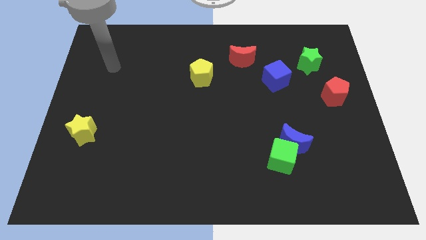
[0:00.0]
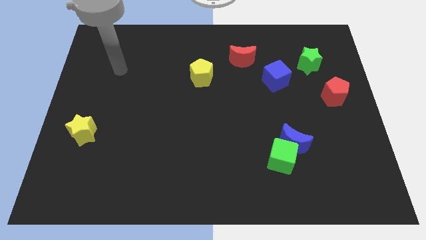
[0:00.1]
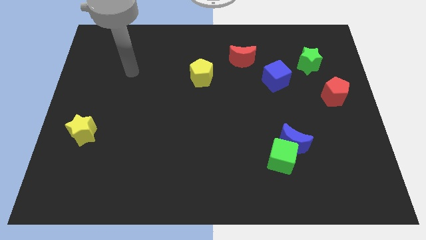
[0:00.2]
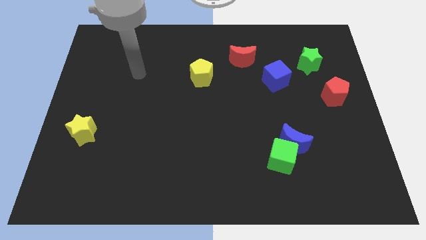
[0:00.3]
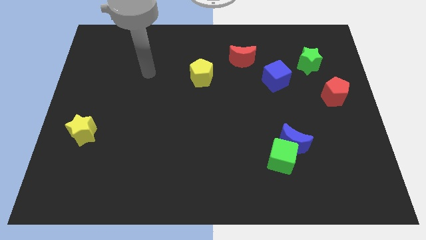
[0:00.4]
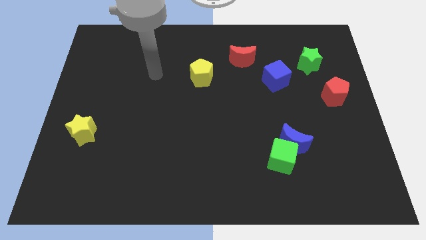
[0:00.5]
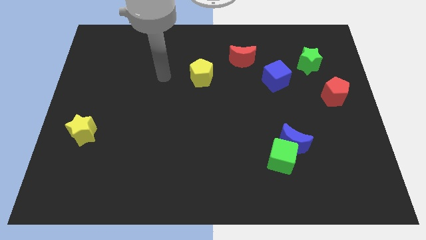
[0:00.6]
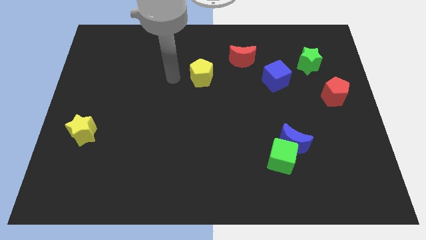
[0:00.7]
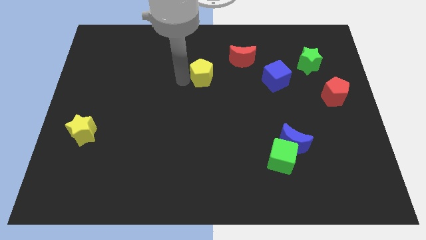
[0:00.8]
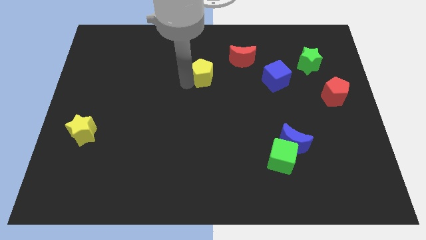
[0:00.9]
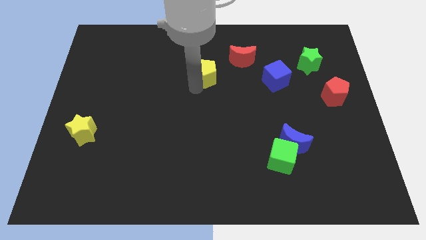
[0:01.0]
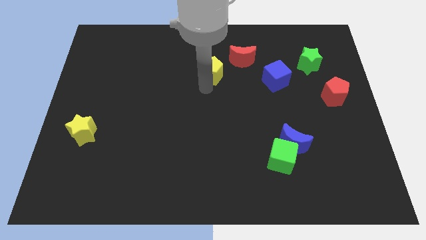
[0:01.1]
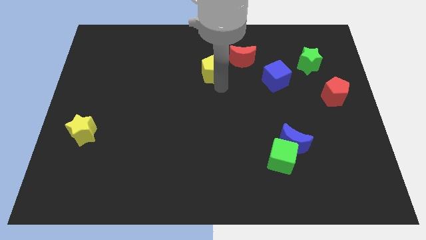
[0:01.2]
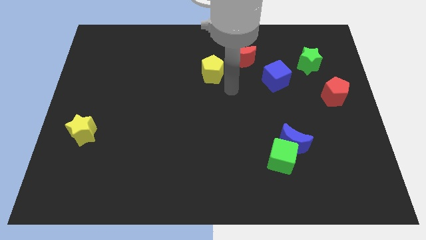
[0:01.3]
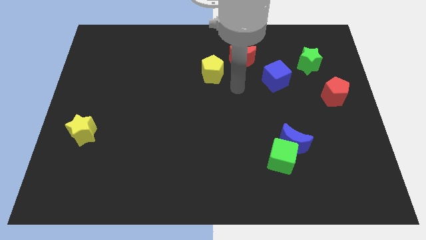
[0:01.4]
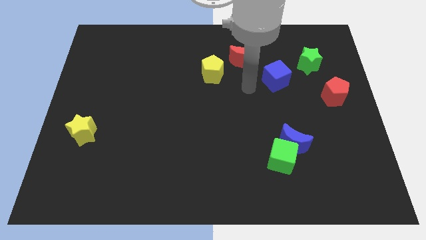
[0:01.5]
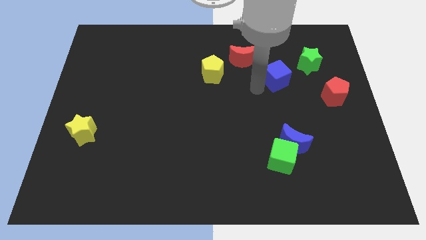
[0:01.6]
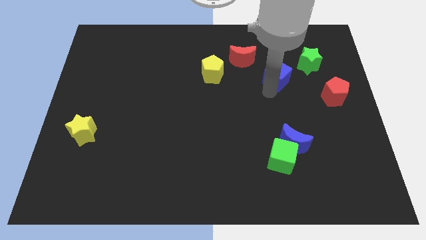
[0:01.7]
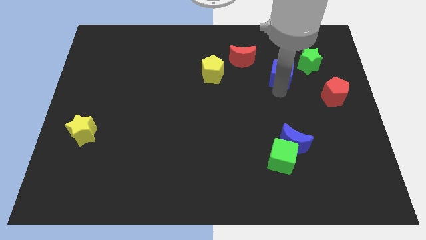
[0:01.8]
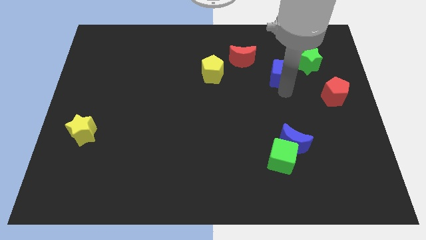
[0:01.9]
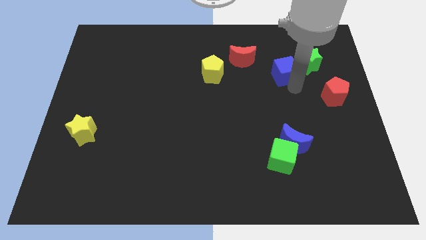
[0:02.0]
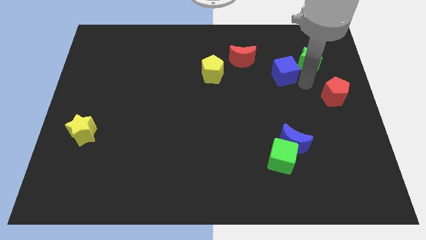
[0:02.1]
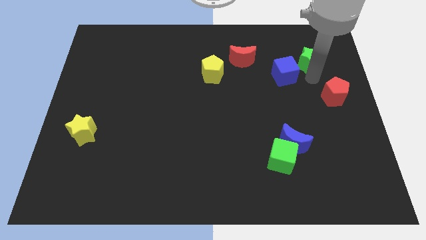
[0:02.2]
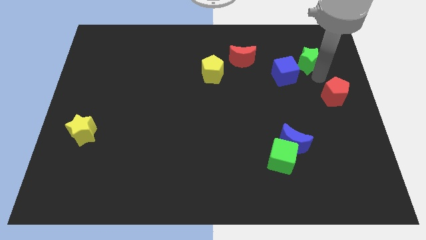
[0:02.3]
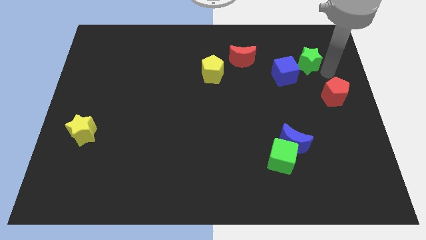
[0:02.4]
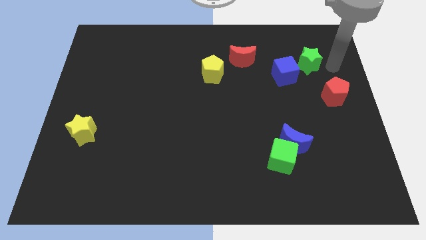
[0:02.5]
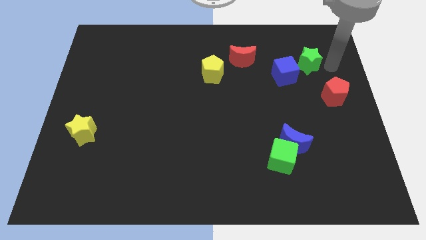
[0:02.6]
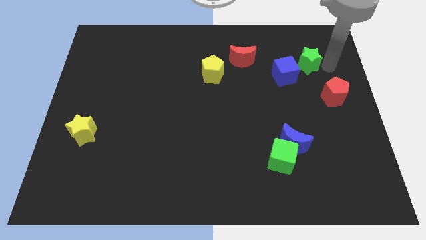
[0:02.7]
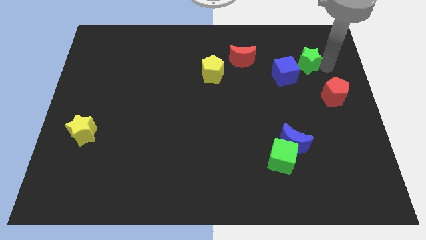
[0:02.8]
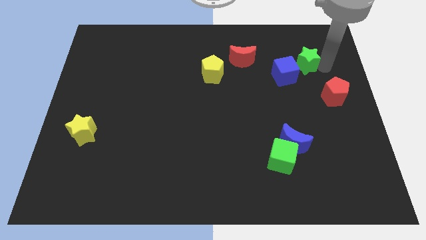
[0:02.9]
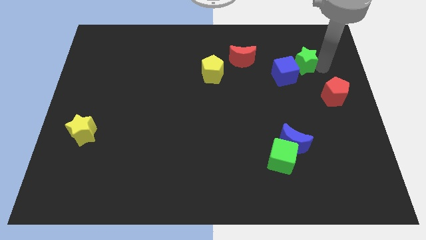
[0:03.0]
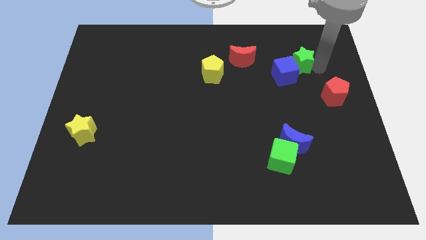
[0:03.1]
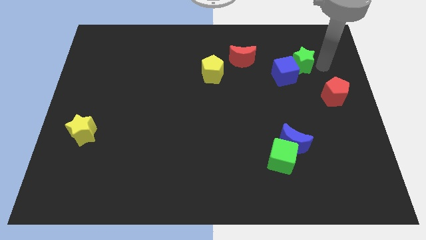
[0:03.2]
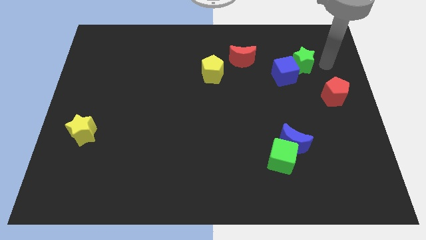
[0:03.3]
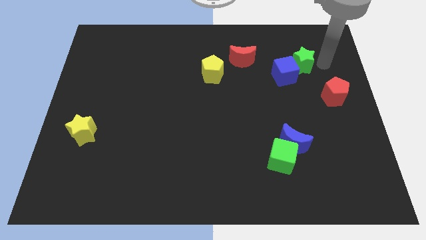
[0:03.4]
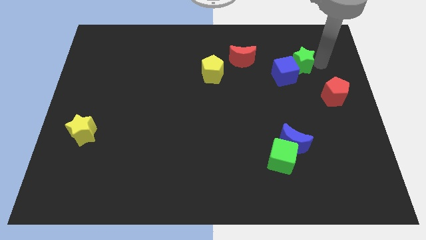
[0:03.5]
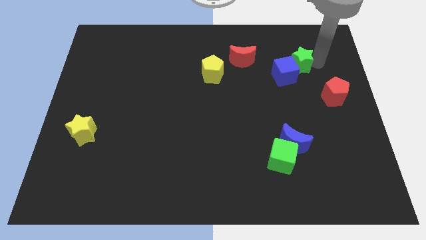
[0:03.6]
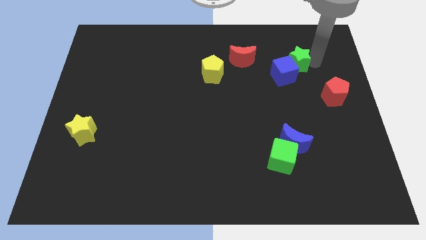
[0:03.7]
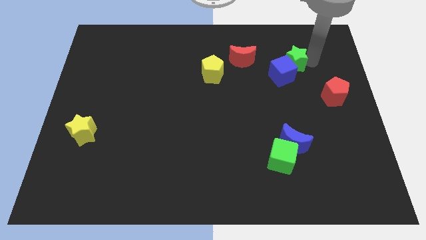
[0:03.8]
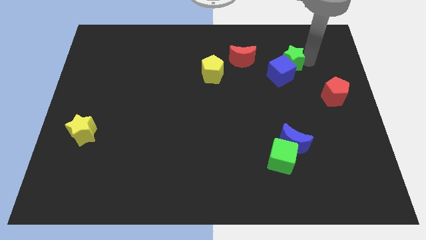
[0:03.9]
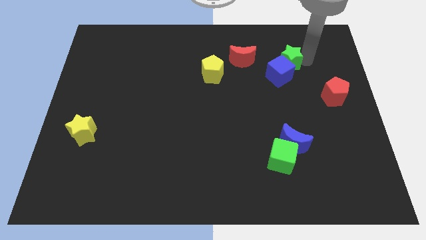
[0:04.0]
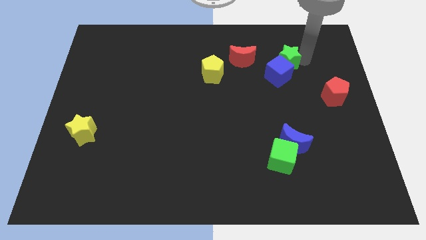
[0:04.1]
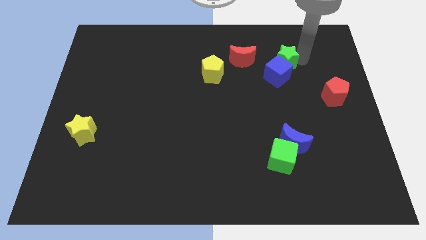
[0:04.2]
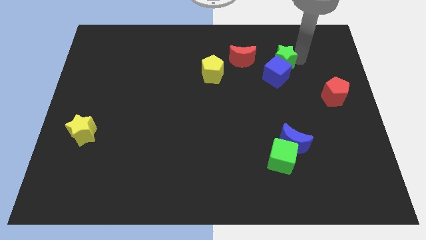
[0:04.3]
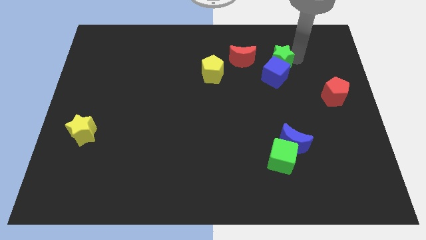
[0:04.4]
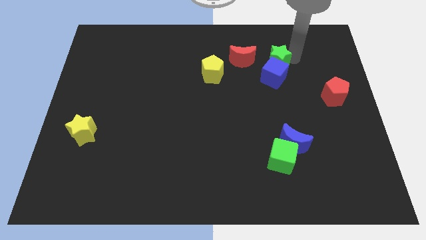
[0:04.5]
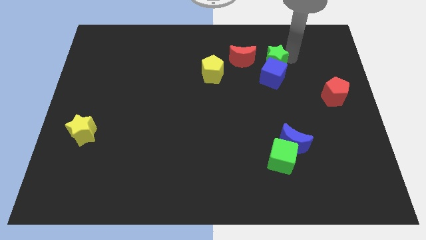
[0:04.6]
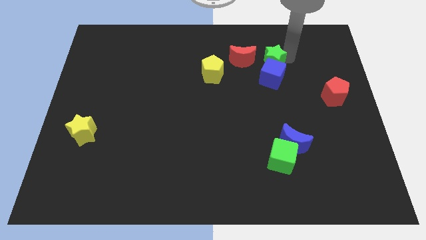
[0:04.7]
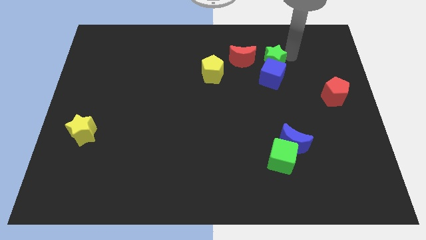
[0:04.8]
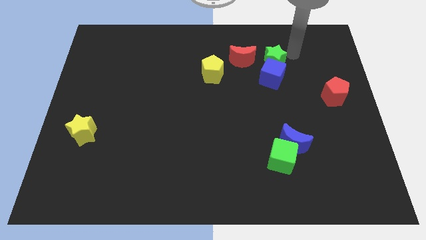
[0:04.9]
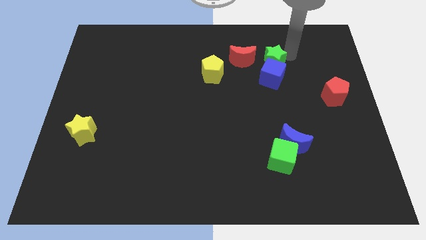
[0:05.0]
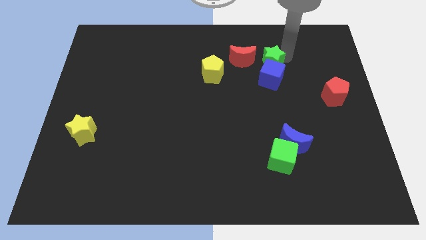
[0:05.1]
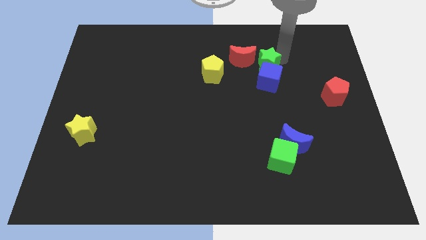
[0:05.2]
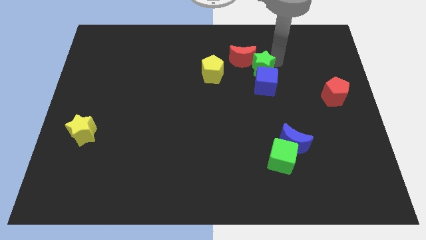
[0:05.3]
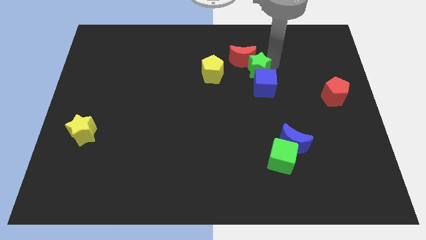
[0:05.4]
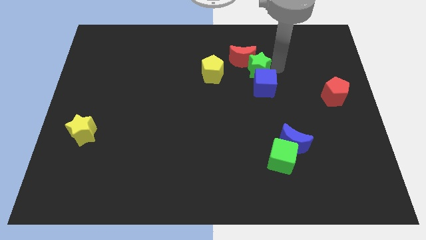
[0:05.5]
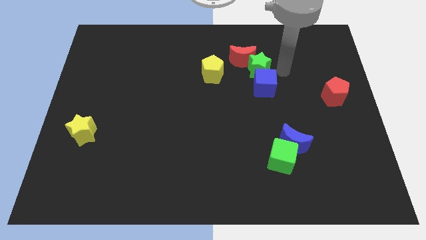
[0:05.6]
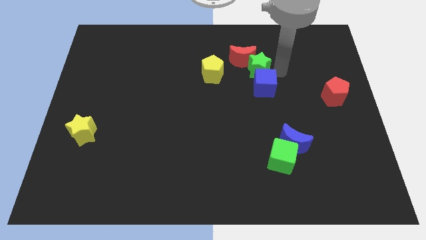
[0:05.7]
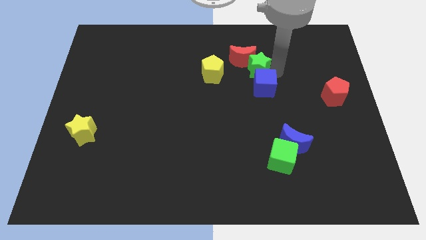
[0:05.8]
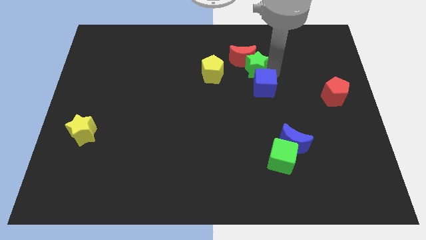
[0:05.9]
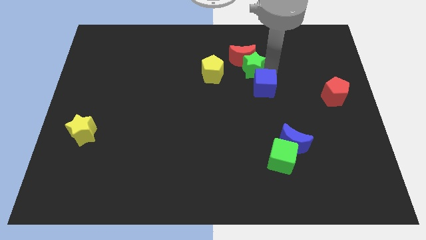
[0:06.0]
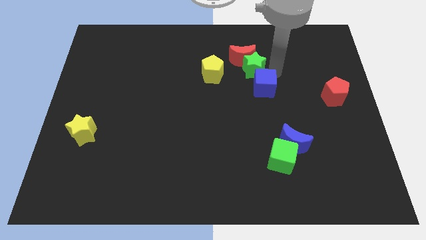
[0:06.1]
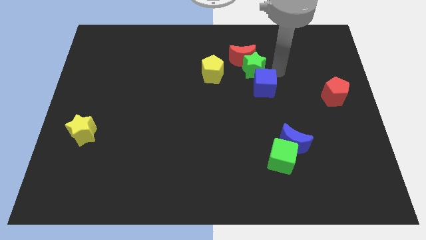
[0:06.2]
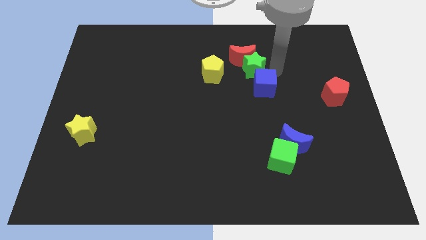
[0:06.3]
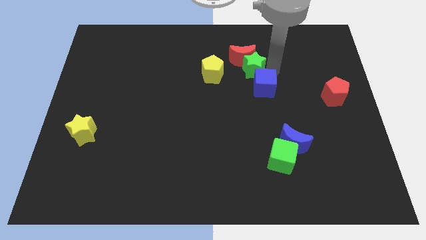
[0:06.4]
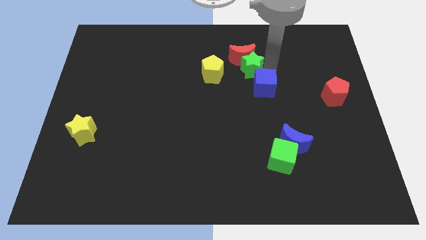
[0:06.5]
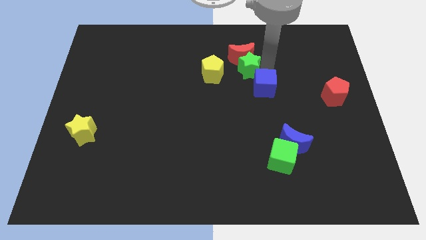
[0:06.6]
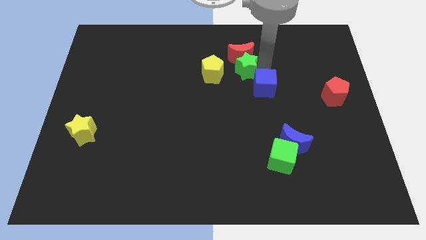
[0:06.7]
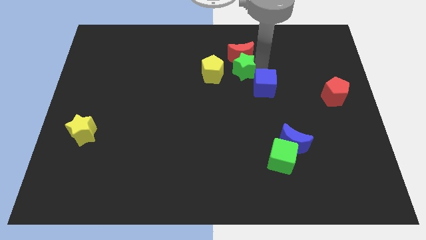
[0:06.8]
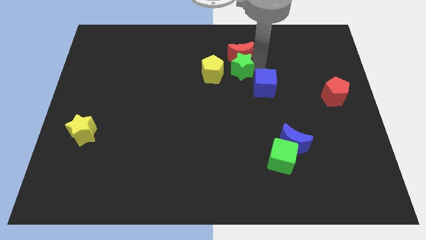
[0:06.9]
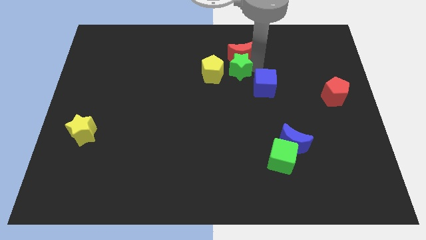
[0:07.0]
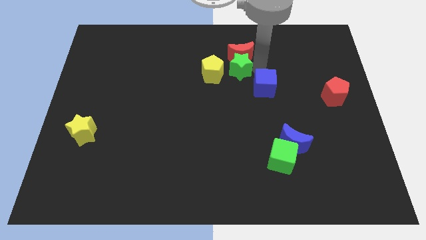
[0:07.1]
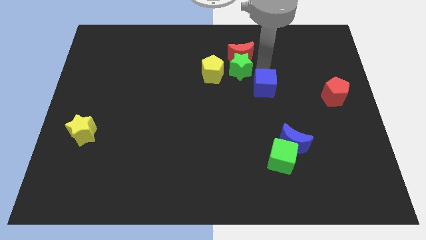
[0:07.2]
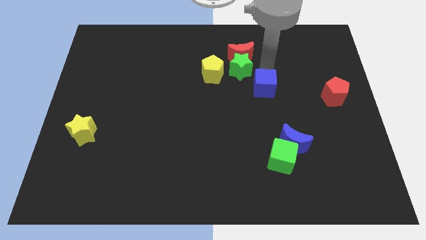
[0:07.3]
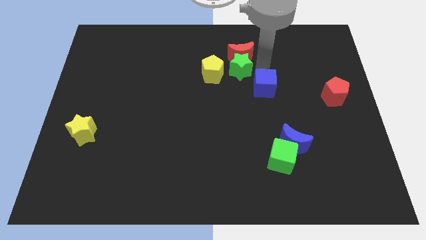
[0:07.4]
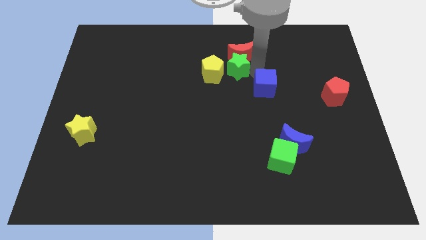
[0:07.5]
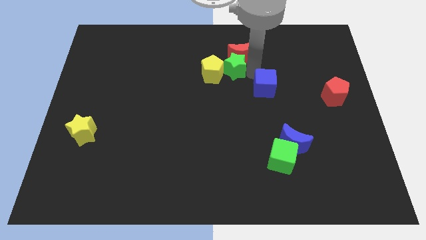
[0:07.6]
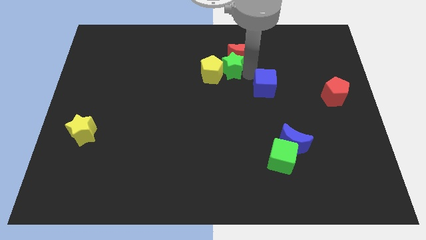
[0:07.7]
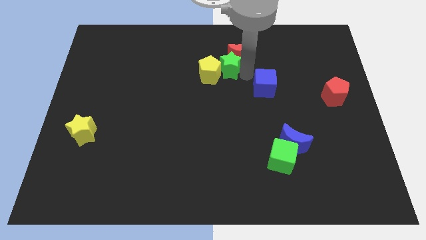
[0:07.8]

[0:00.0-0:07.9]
push the green star to the left

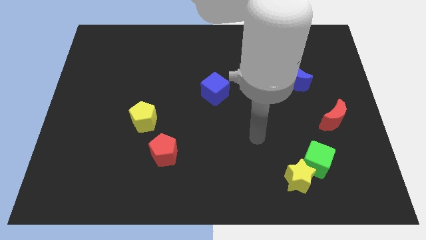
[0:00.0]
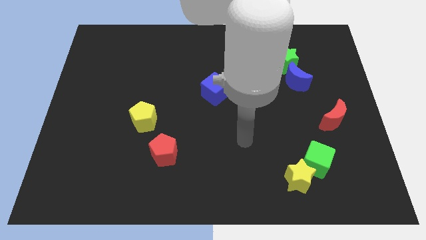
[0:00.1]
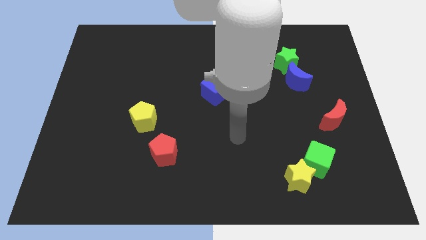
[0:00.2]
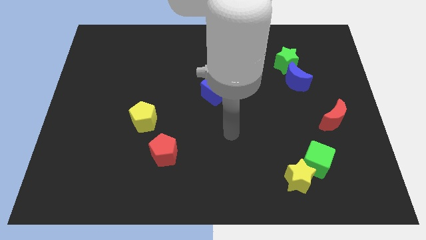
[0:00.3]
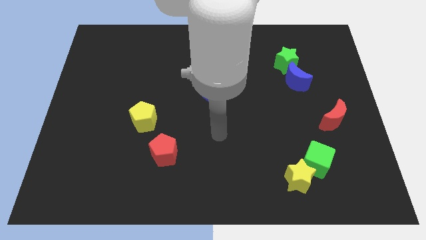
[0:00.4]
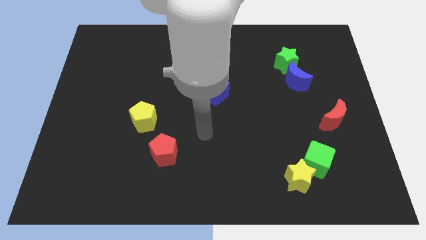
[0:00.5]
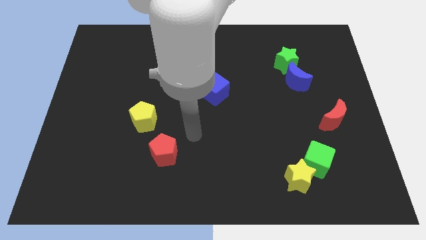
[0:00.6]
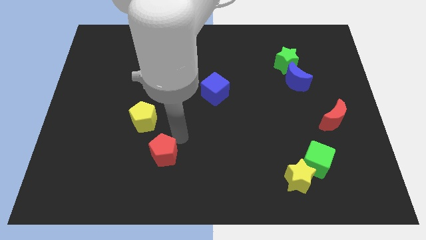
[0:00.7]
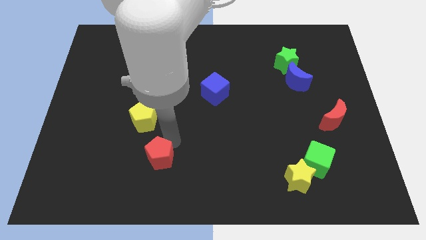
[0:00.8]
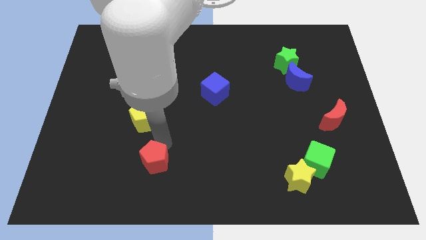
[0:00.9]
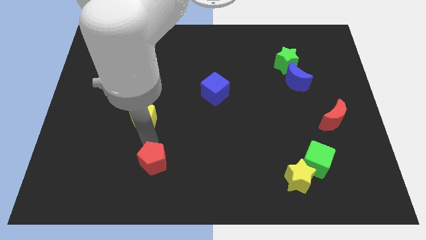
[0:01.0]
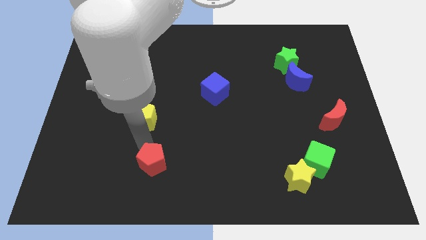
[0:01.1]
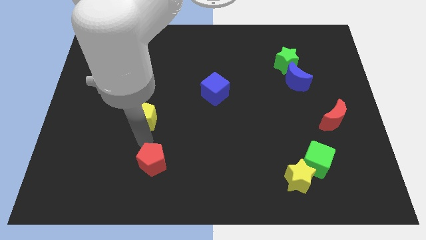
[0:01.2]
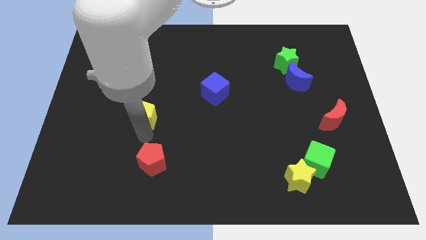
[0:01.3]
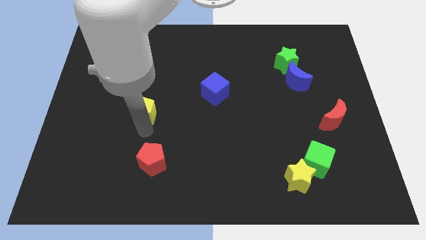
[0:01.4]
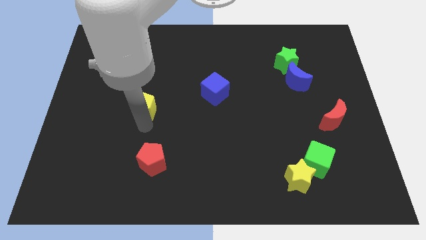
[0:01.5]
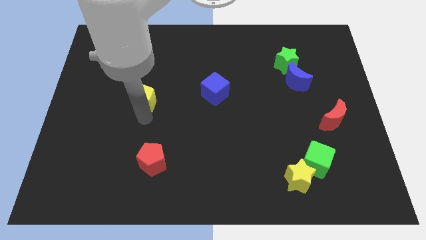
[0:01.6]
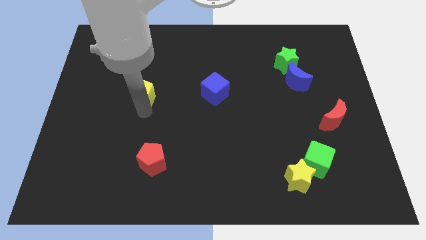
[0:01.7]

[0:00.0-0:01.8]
push the yellow pentagon a bit upwards
